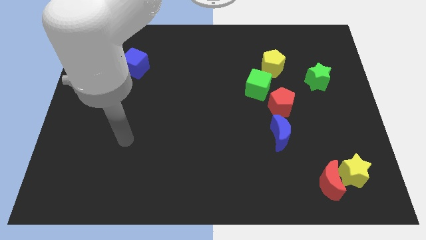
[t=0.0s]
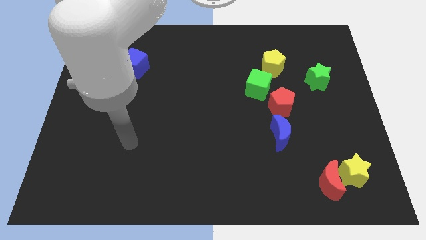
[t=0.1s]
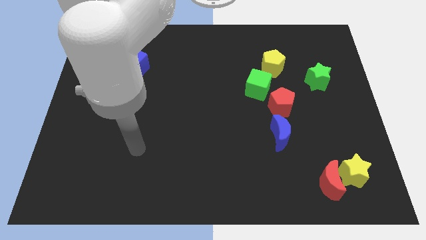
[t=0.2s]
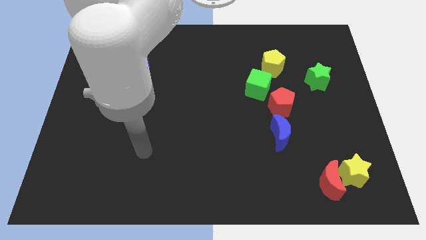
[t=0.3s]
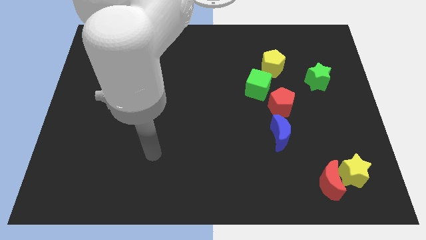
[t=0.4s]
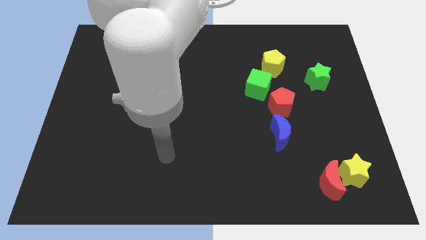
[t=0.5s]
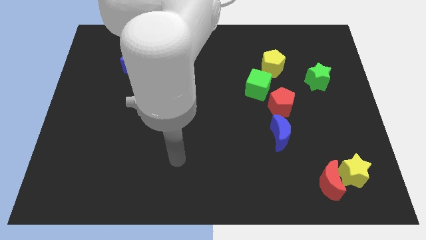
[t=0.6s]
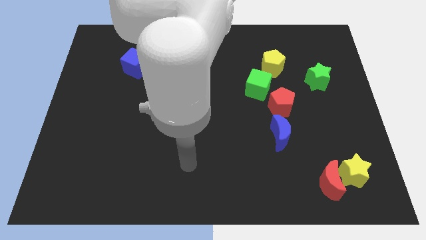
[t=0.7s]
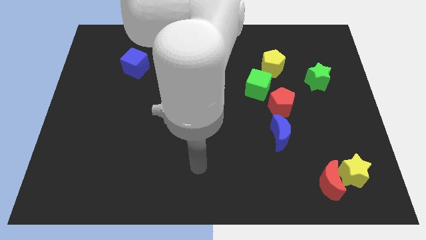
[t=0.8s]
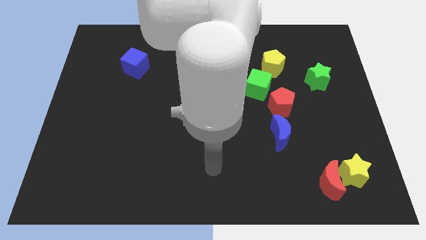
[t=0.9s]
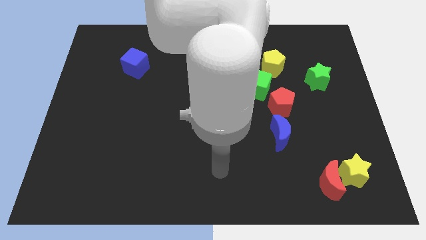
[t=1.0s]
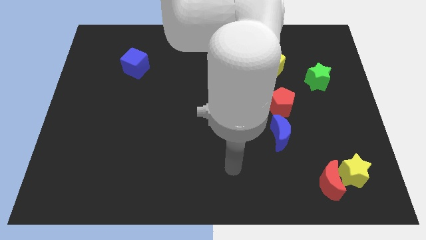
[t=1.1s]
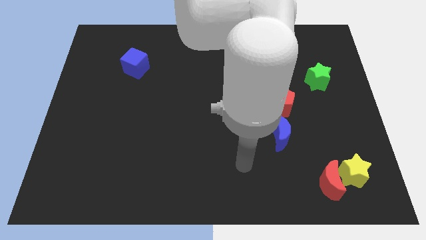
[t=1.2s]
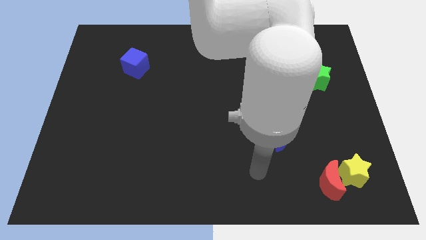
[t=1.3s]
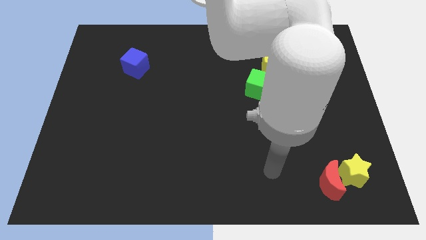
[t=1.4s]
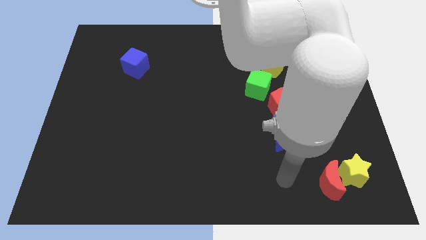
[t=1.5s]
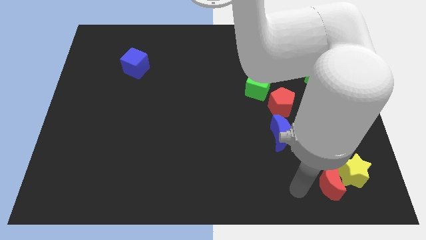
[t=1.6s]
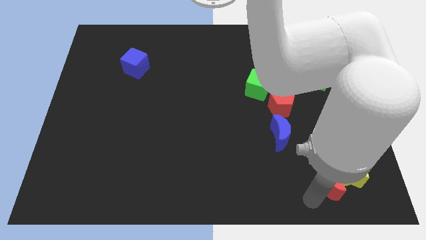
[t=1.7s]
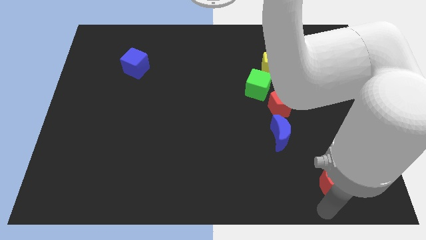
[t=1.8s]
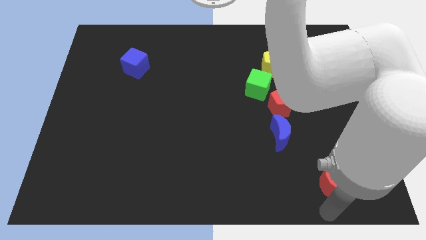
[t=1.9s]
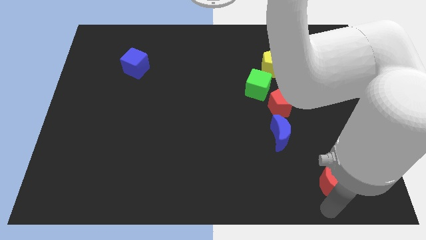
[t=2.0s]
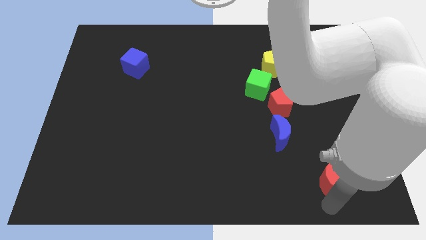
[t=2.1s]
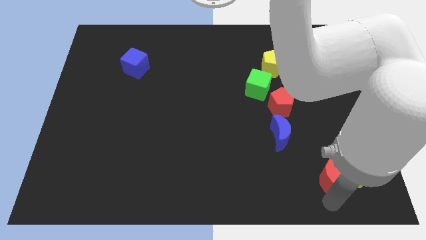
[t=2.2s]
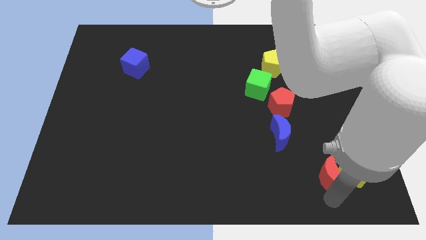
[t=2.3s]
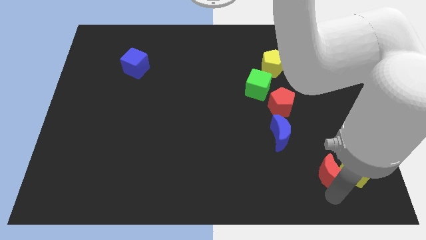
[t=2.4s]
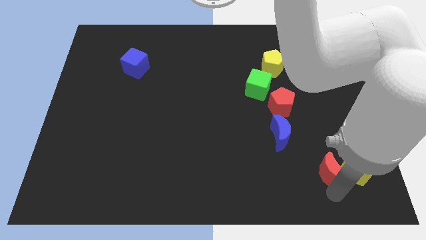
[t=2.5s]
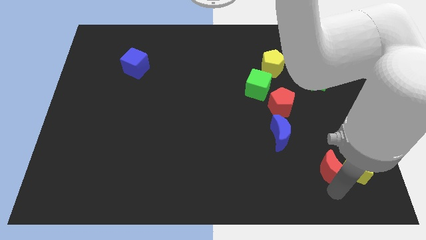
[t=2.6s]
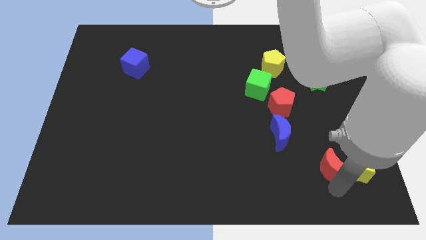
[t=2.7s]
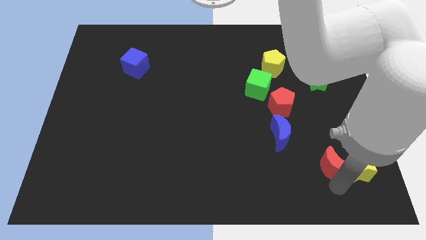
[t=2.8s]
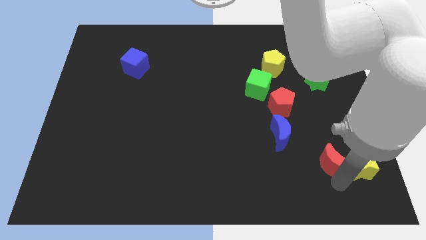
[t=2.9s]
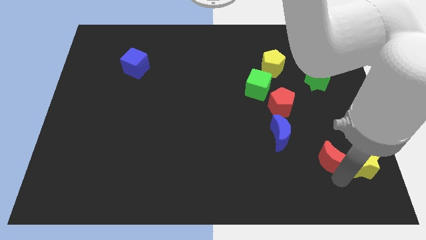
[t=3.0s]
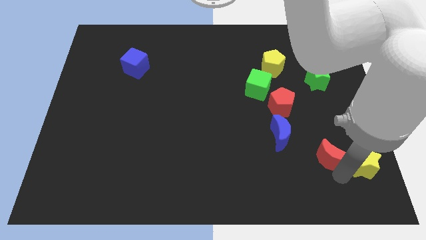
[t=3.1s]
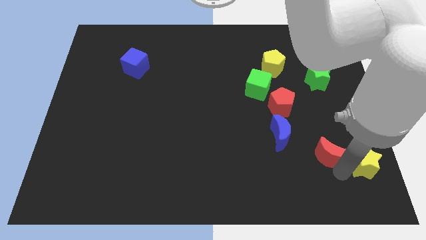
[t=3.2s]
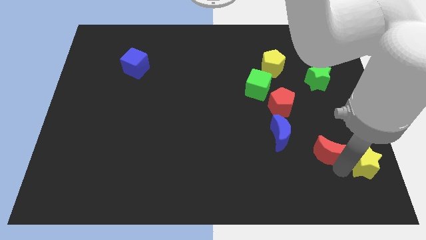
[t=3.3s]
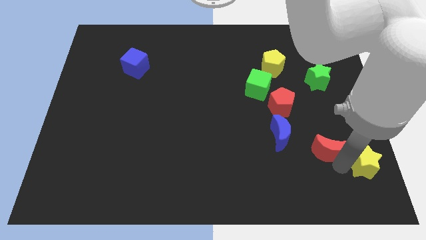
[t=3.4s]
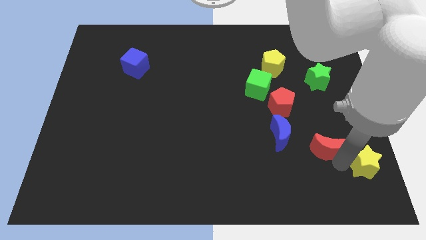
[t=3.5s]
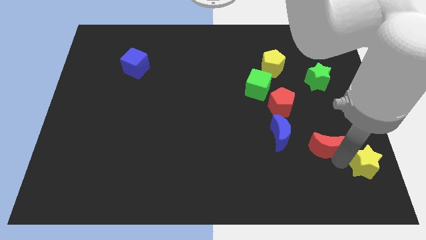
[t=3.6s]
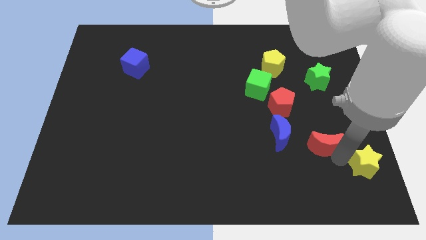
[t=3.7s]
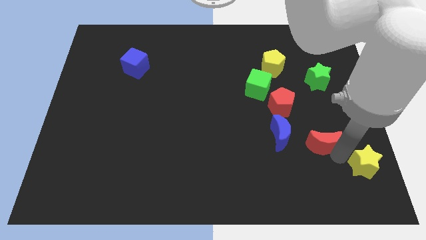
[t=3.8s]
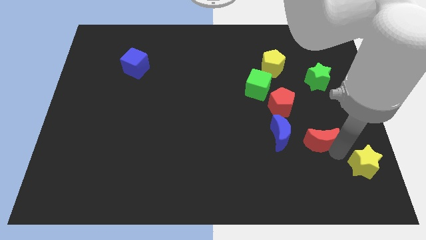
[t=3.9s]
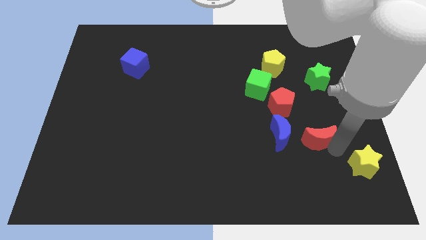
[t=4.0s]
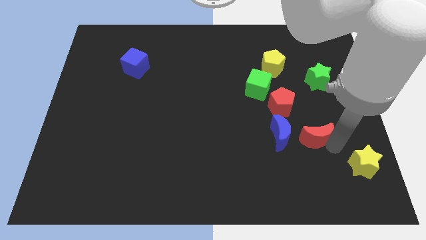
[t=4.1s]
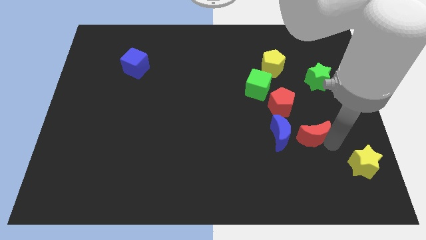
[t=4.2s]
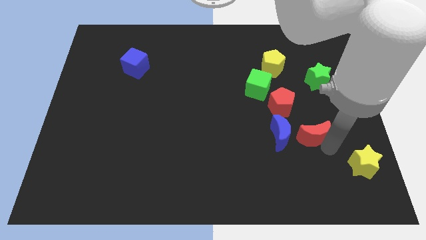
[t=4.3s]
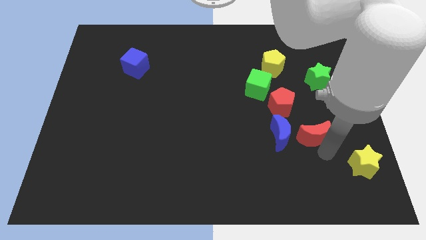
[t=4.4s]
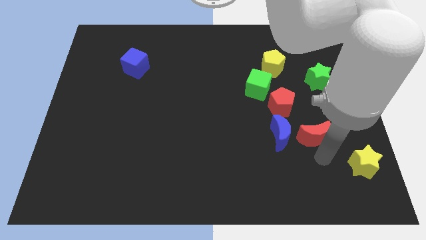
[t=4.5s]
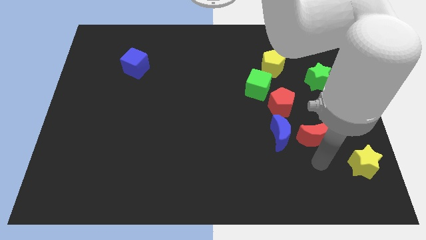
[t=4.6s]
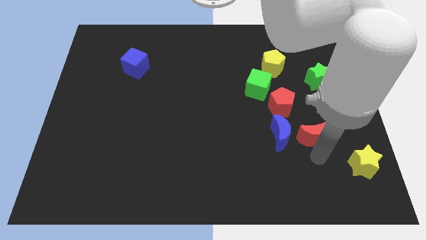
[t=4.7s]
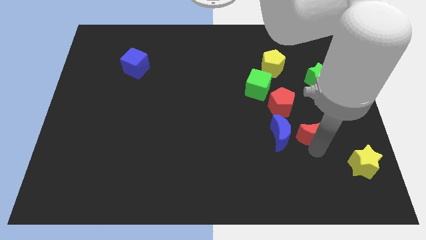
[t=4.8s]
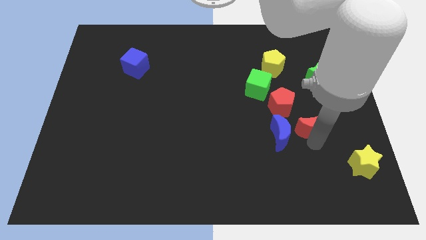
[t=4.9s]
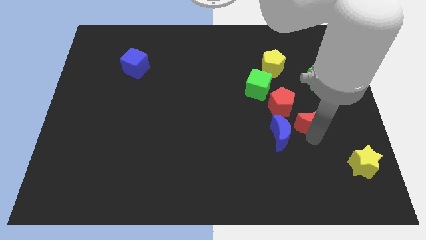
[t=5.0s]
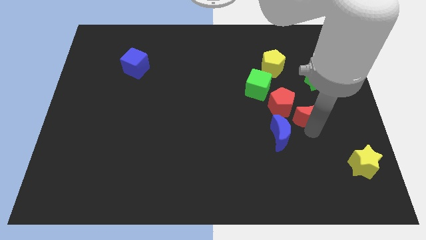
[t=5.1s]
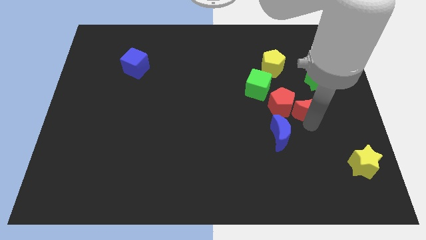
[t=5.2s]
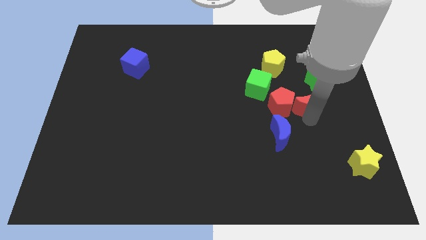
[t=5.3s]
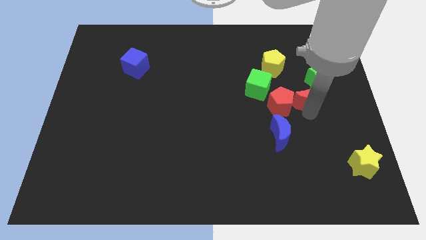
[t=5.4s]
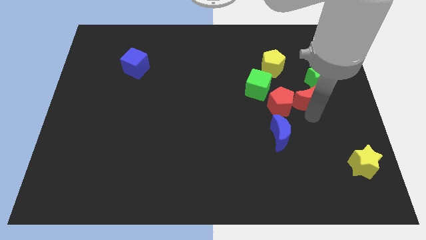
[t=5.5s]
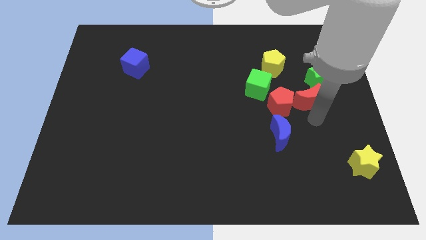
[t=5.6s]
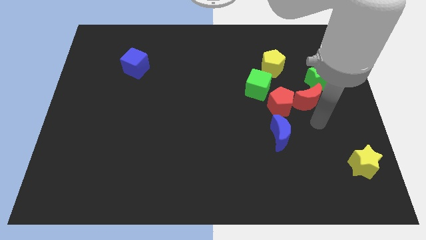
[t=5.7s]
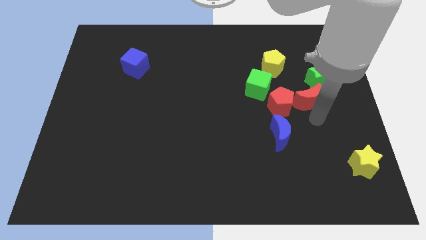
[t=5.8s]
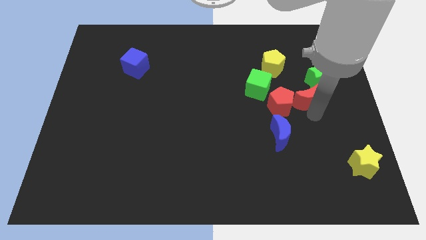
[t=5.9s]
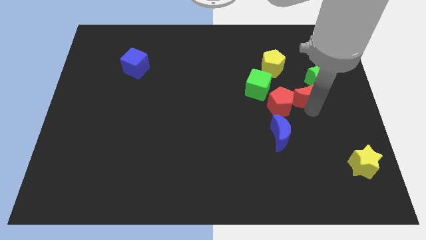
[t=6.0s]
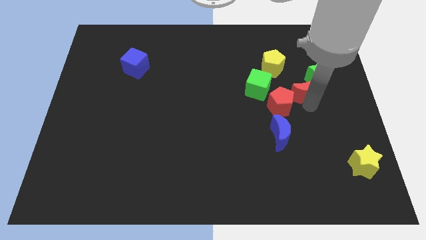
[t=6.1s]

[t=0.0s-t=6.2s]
push the red moon to the left side of the green star
